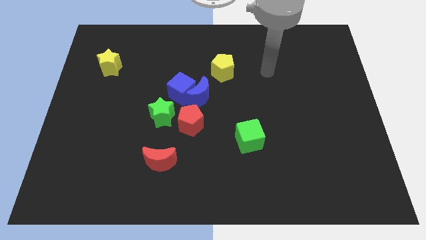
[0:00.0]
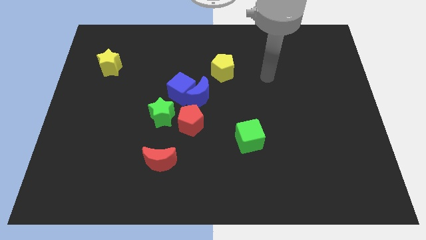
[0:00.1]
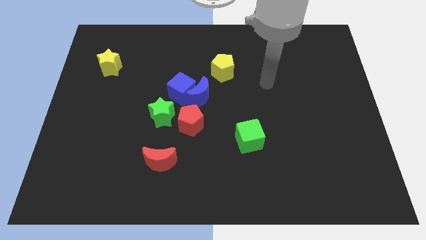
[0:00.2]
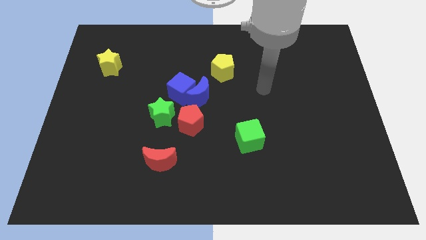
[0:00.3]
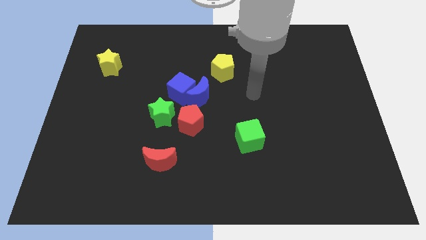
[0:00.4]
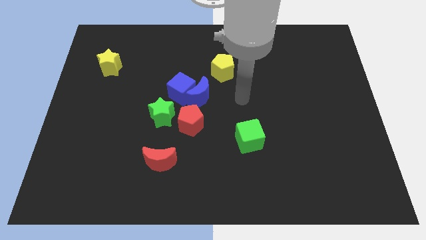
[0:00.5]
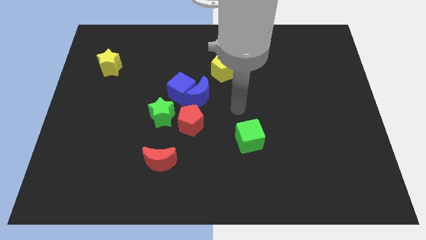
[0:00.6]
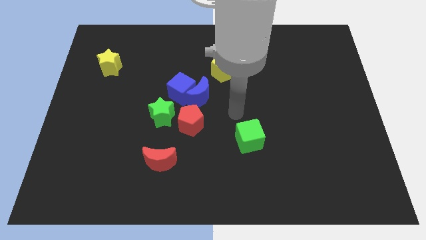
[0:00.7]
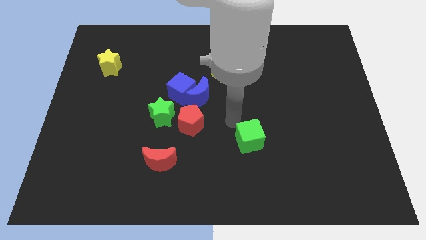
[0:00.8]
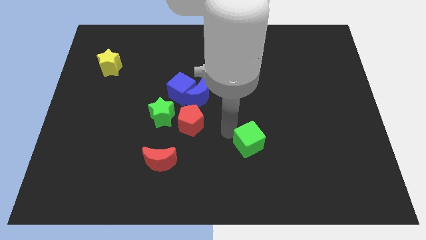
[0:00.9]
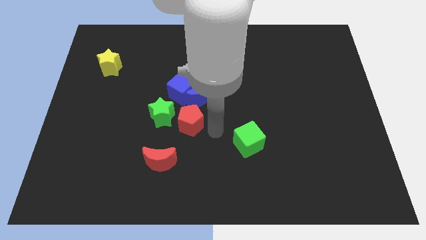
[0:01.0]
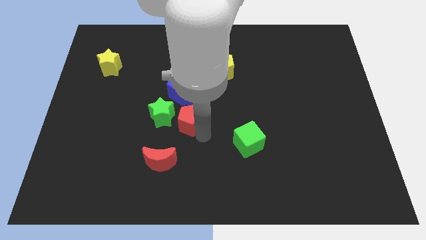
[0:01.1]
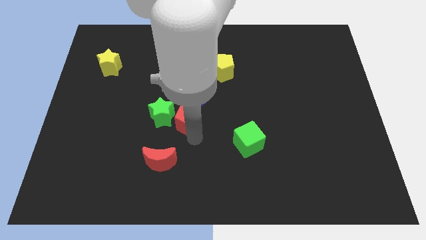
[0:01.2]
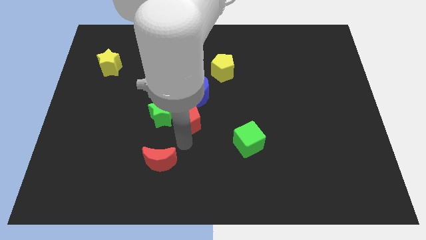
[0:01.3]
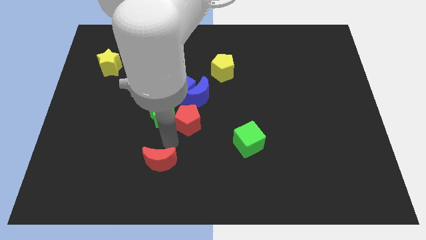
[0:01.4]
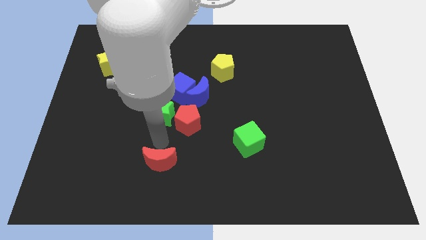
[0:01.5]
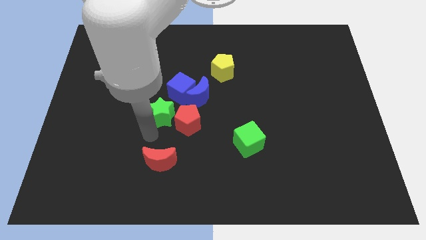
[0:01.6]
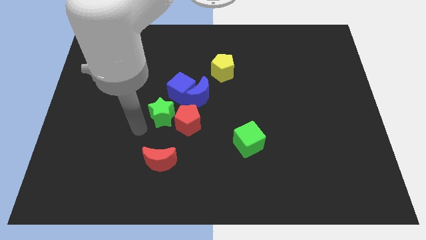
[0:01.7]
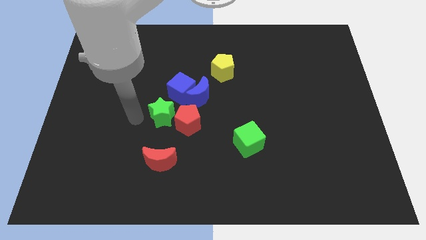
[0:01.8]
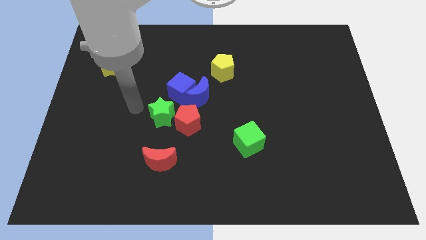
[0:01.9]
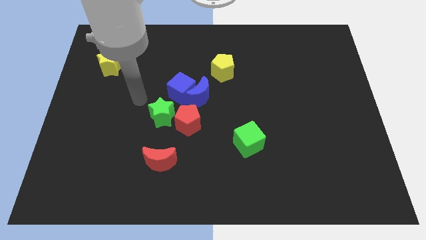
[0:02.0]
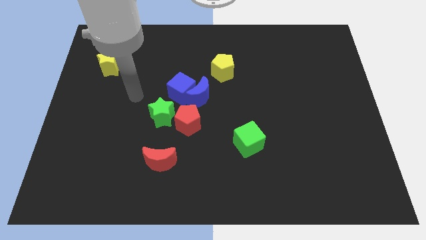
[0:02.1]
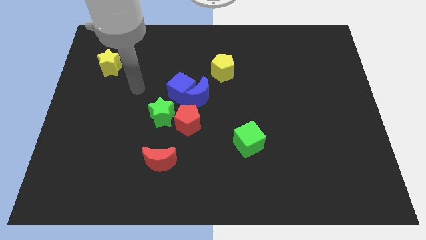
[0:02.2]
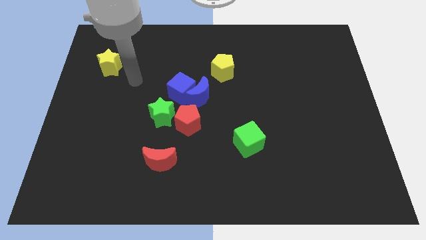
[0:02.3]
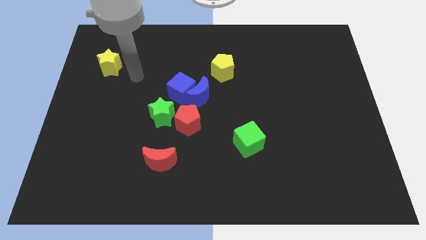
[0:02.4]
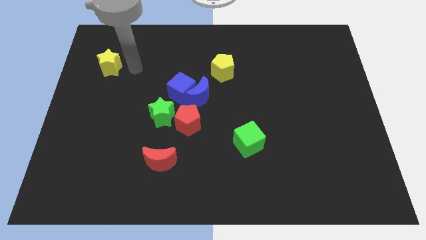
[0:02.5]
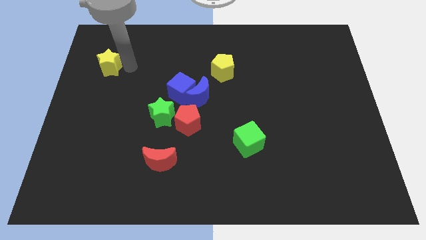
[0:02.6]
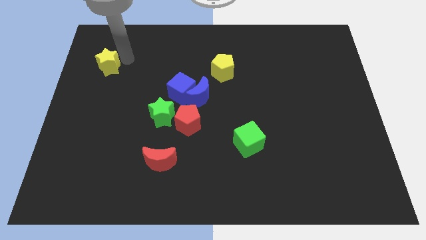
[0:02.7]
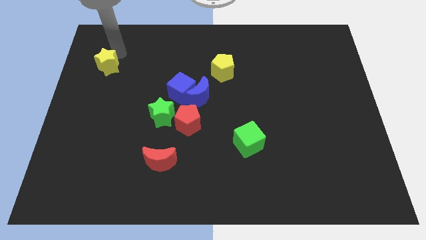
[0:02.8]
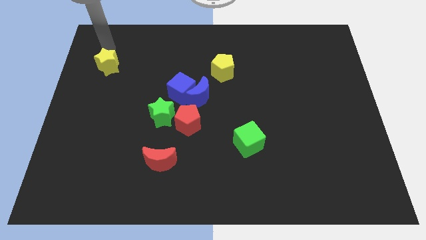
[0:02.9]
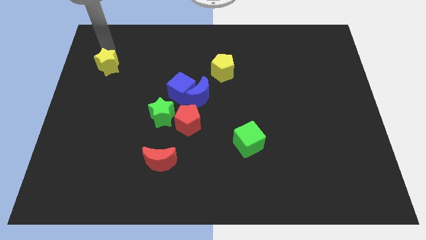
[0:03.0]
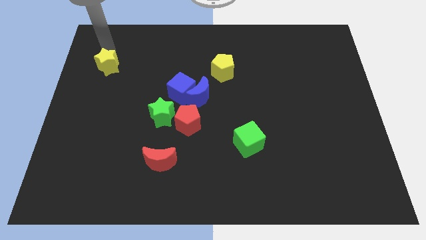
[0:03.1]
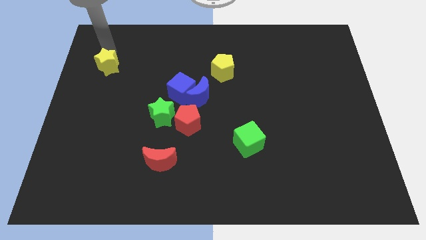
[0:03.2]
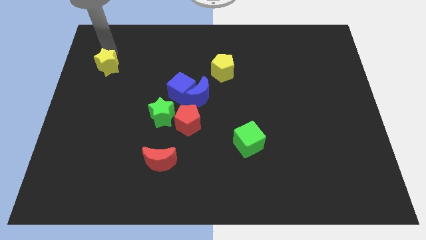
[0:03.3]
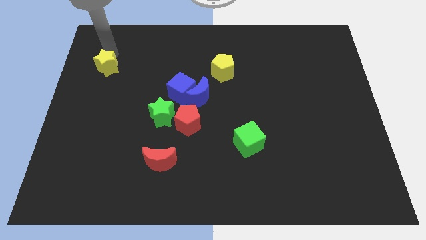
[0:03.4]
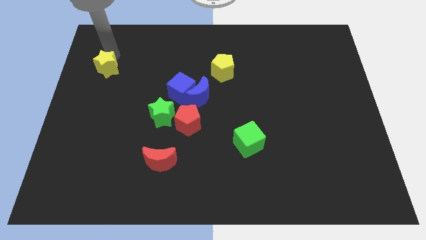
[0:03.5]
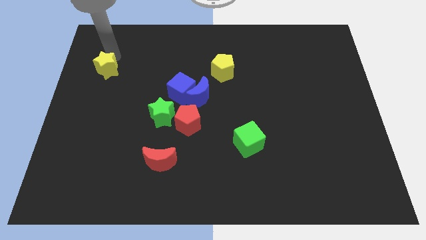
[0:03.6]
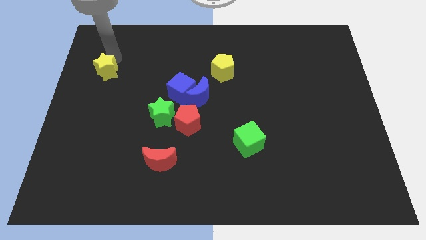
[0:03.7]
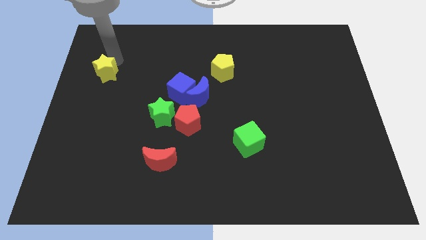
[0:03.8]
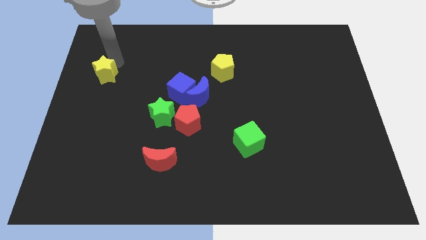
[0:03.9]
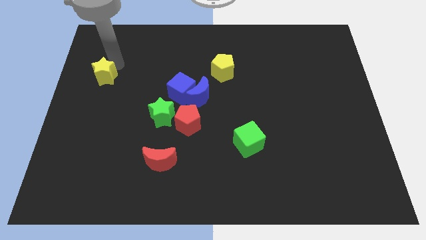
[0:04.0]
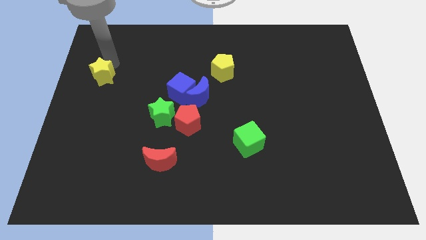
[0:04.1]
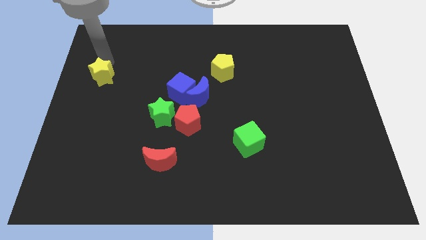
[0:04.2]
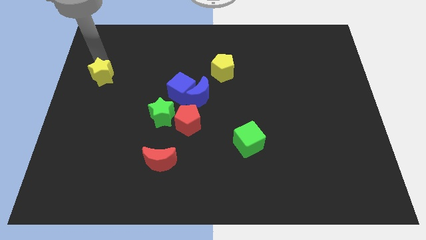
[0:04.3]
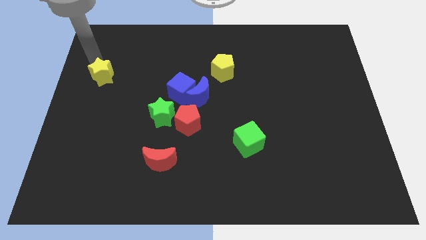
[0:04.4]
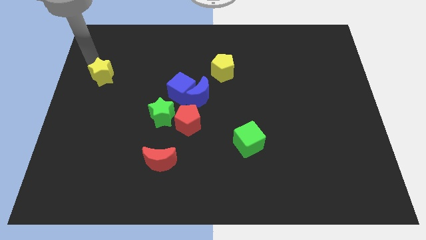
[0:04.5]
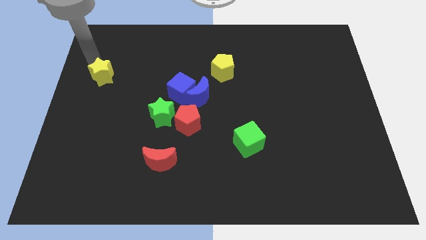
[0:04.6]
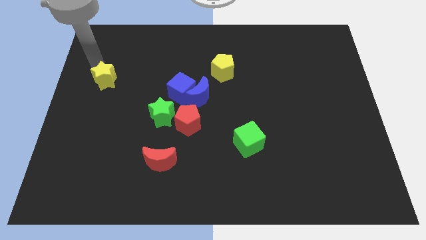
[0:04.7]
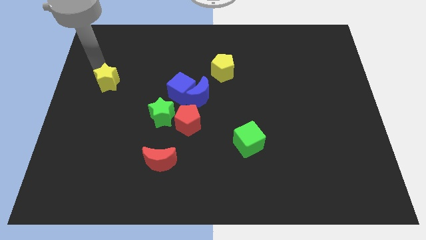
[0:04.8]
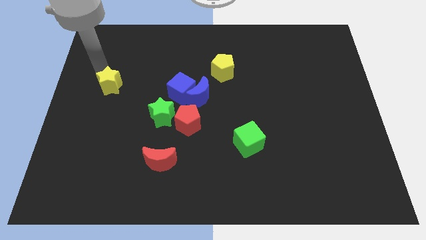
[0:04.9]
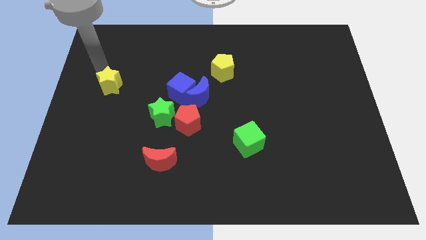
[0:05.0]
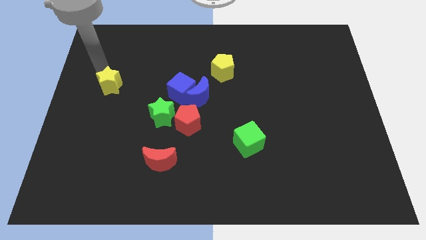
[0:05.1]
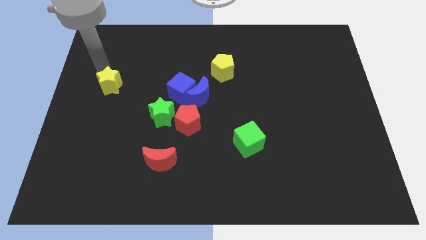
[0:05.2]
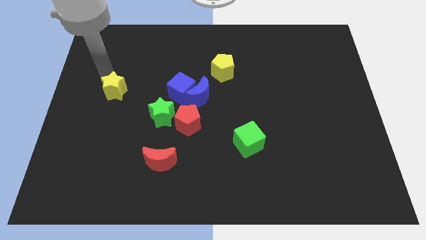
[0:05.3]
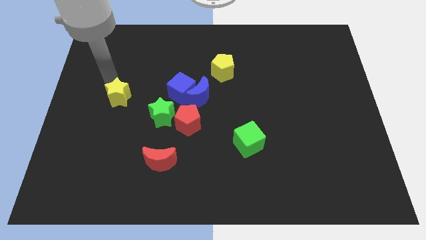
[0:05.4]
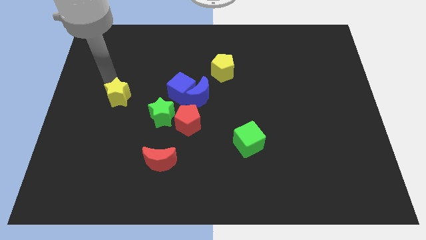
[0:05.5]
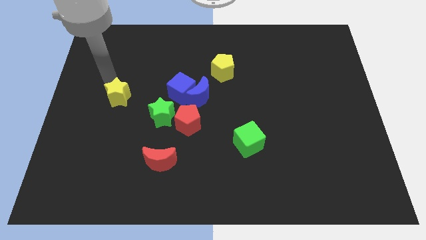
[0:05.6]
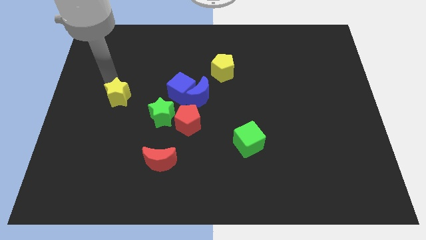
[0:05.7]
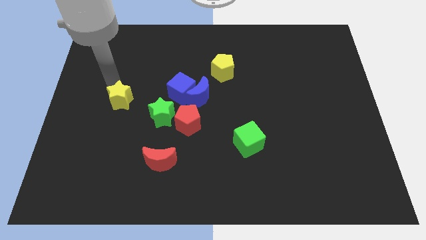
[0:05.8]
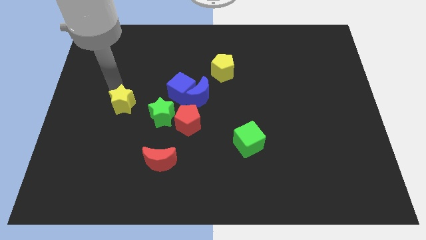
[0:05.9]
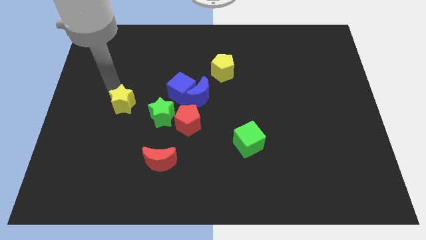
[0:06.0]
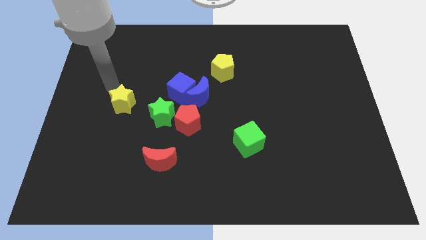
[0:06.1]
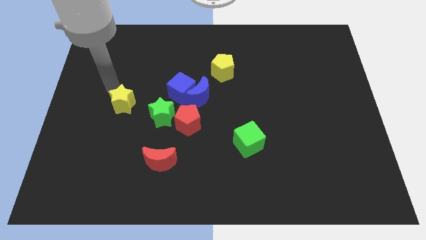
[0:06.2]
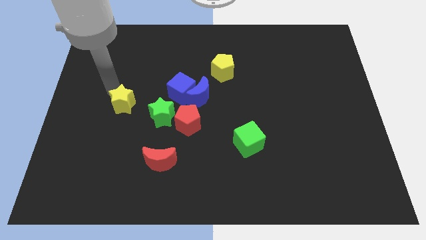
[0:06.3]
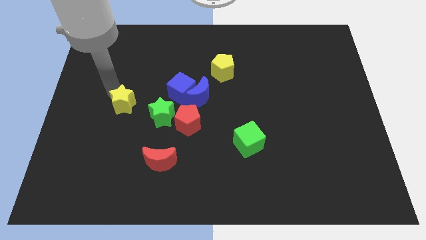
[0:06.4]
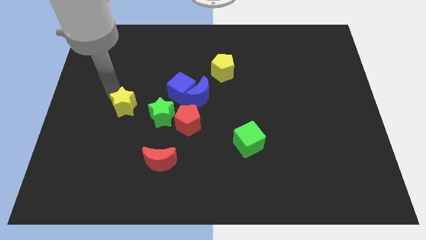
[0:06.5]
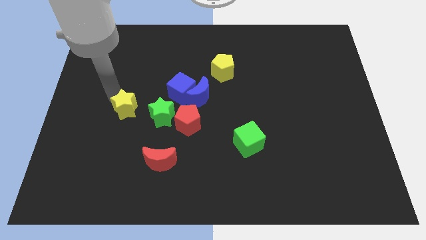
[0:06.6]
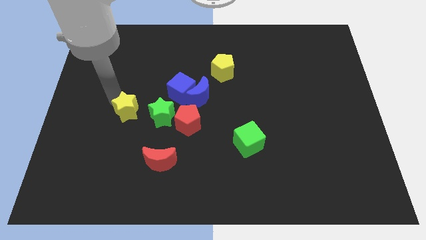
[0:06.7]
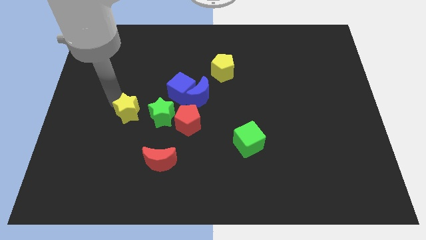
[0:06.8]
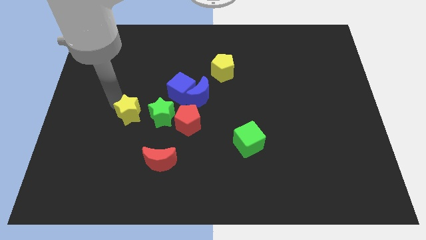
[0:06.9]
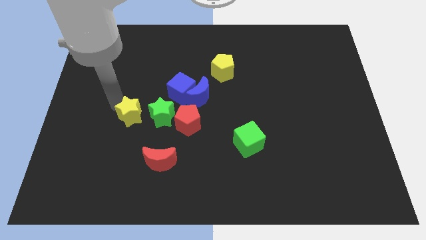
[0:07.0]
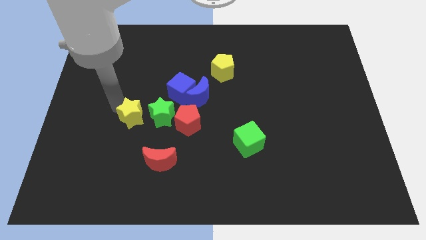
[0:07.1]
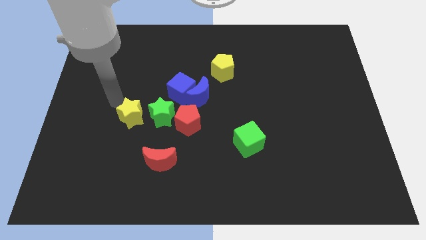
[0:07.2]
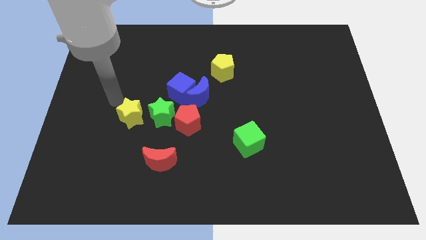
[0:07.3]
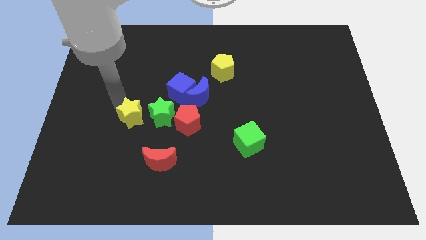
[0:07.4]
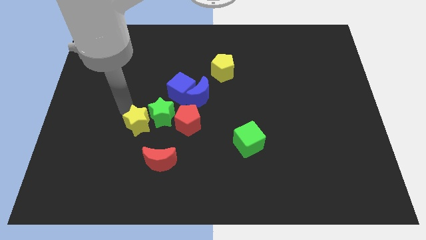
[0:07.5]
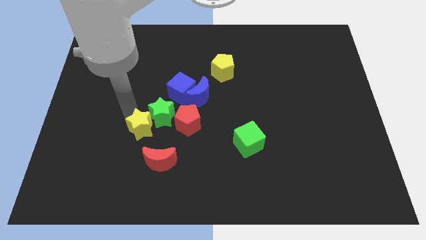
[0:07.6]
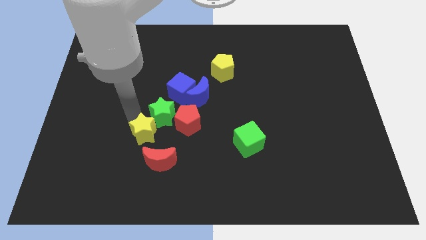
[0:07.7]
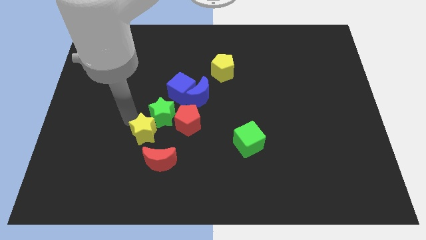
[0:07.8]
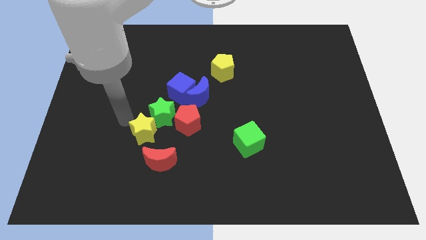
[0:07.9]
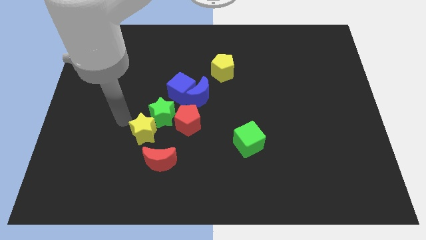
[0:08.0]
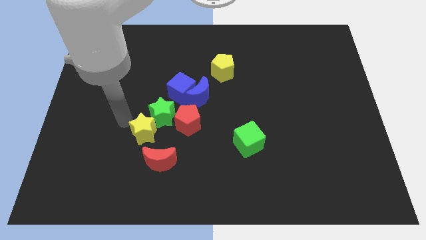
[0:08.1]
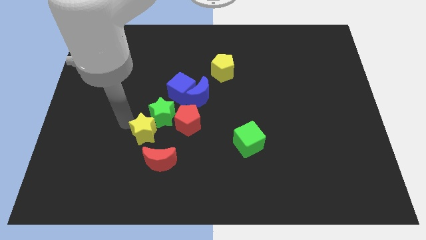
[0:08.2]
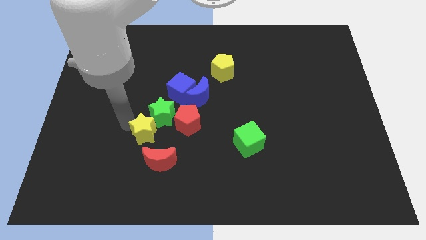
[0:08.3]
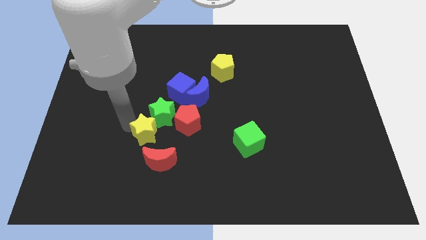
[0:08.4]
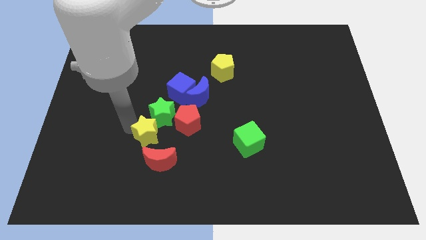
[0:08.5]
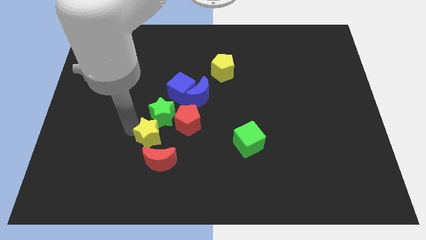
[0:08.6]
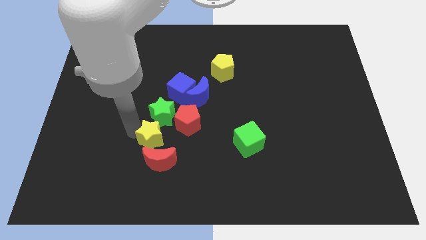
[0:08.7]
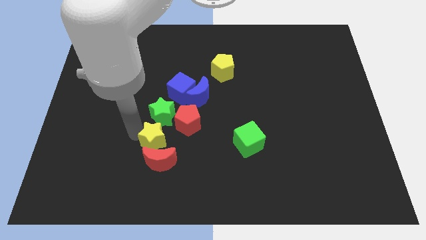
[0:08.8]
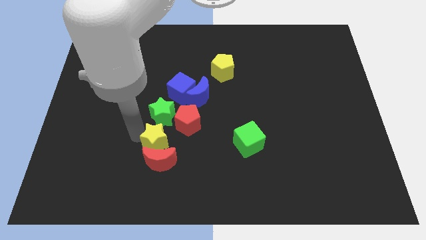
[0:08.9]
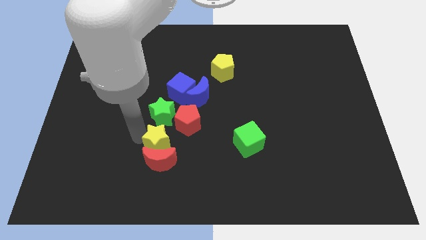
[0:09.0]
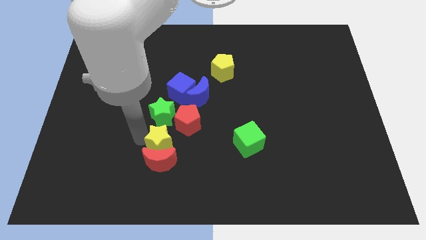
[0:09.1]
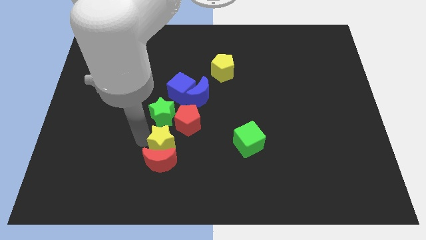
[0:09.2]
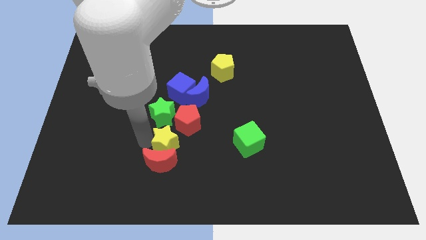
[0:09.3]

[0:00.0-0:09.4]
slide the yellow star to the bottom side of the red pentagon
